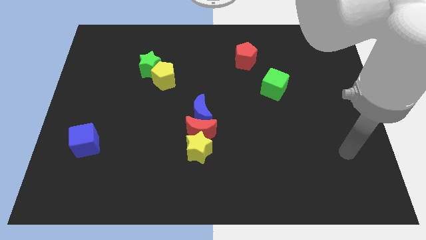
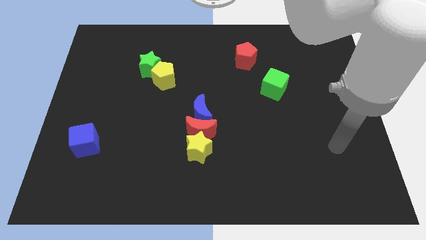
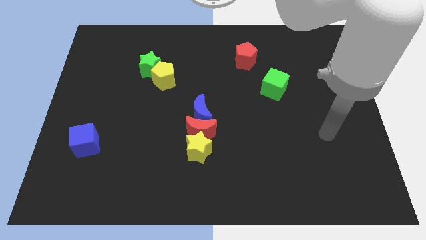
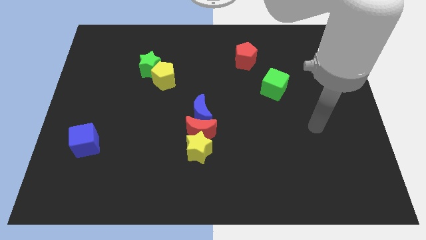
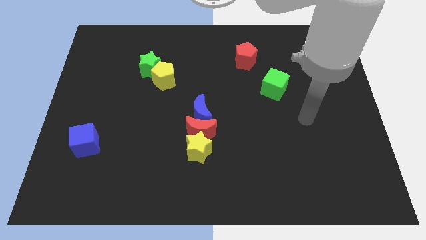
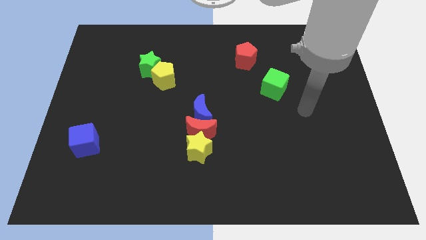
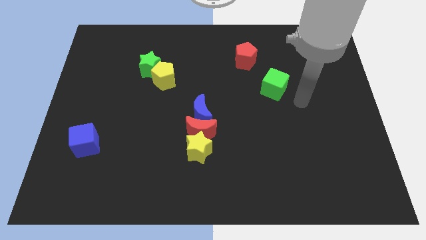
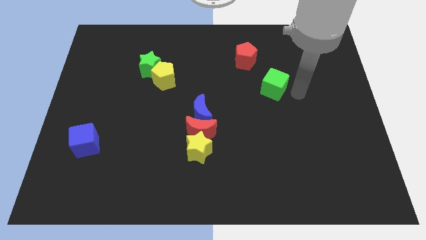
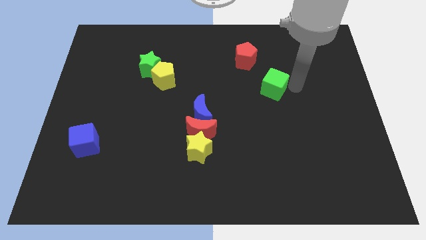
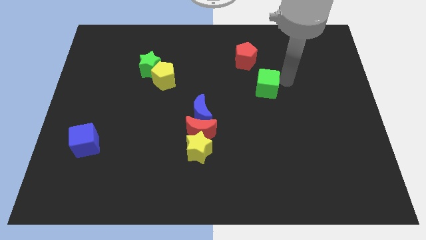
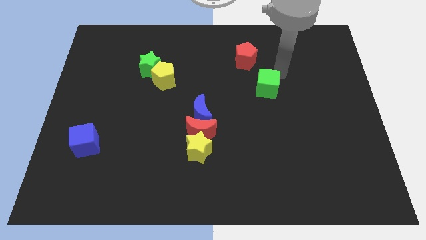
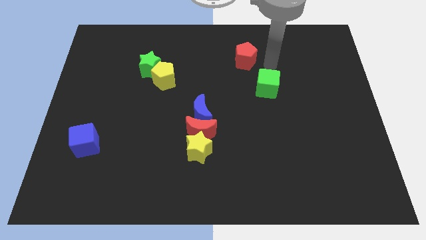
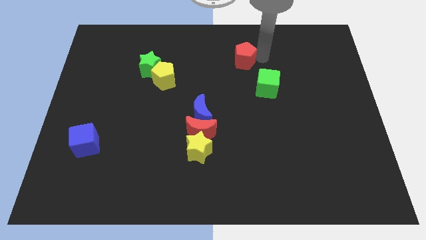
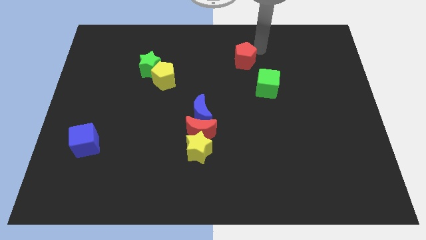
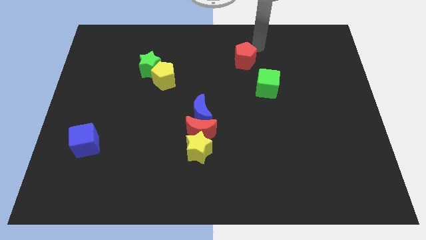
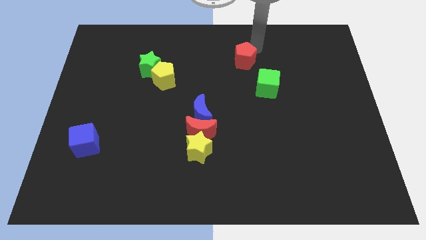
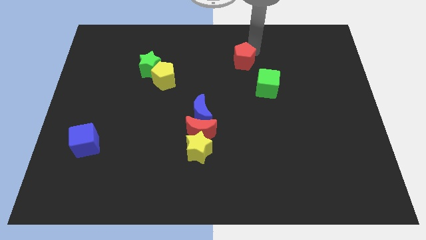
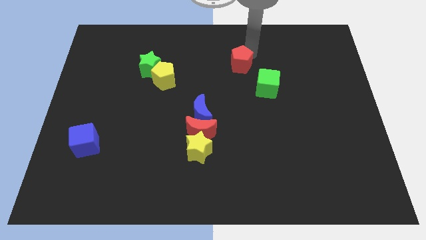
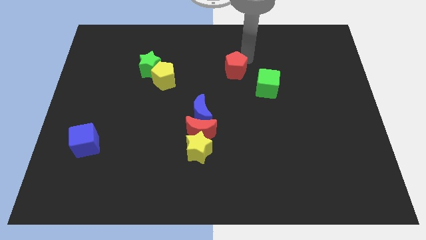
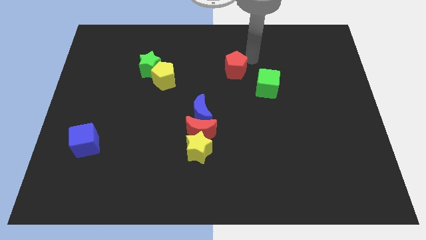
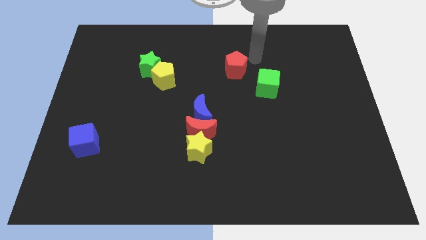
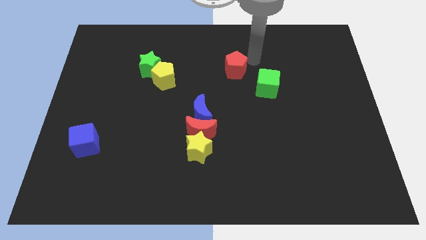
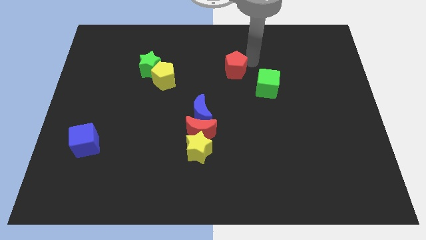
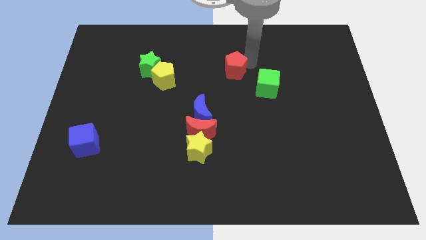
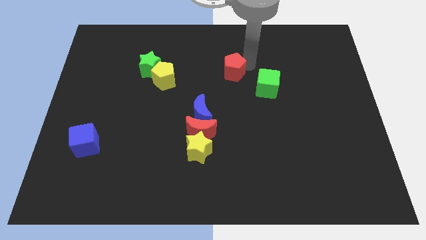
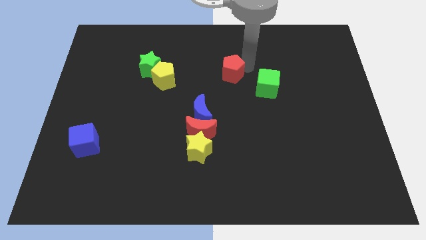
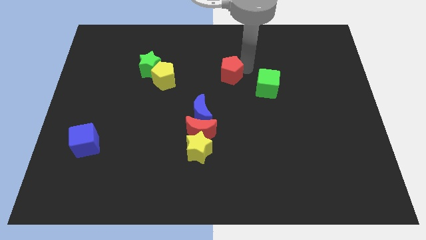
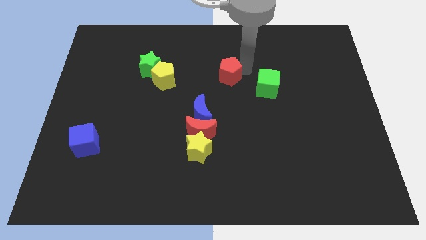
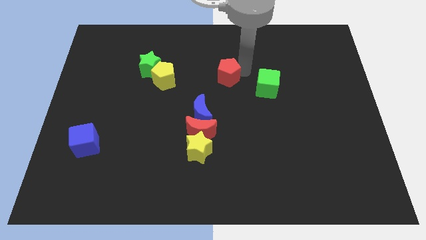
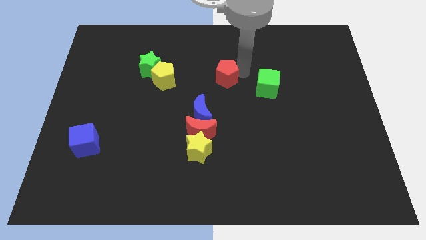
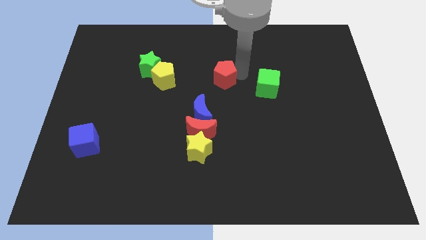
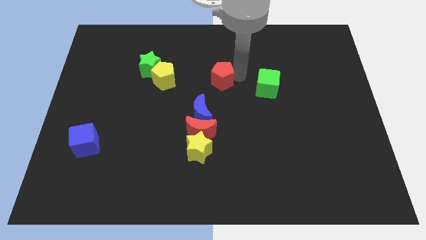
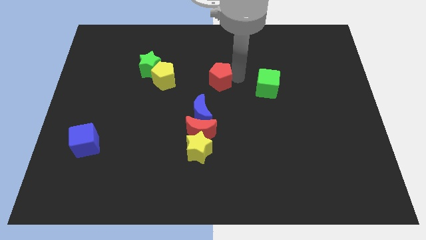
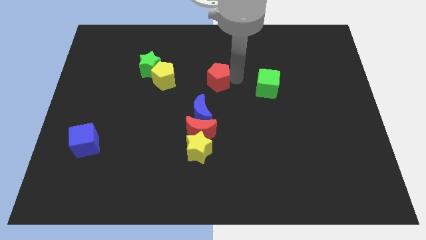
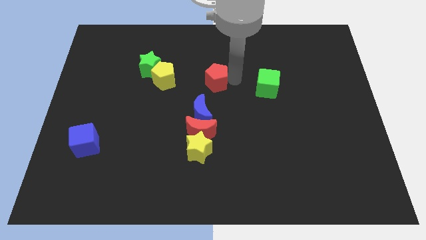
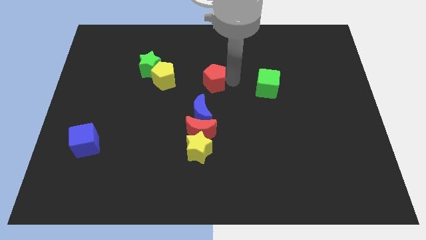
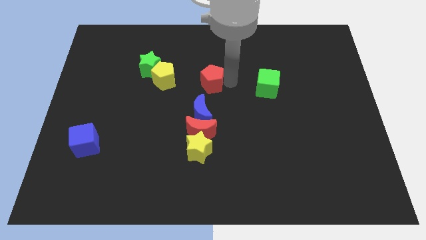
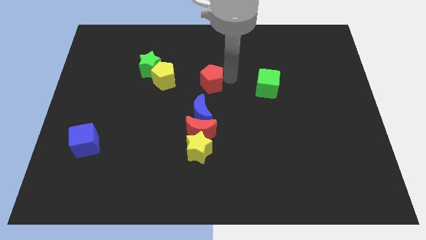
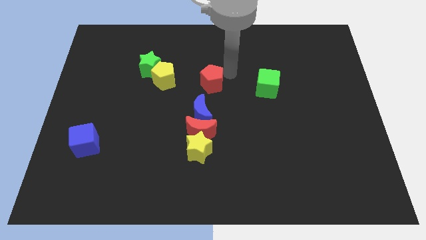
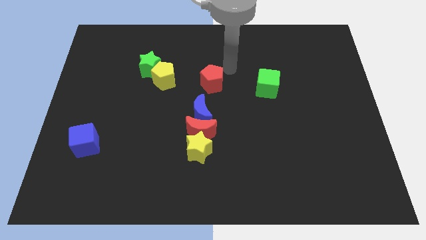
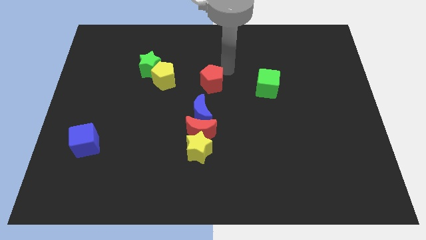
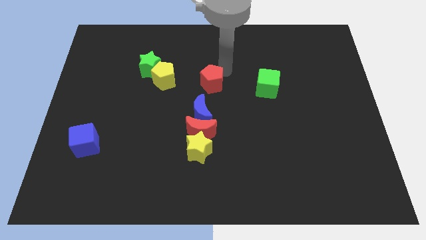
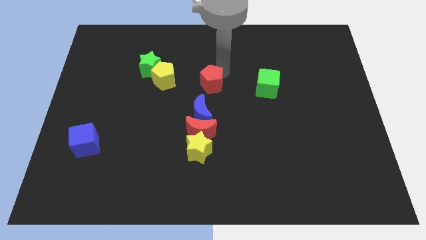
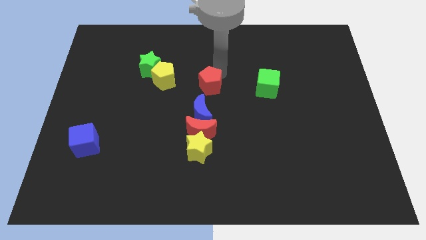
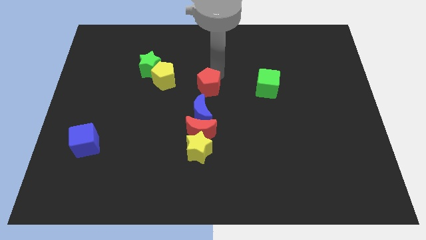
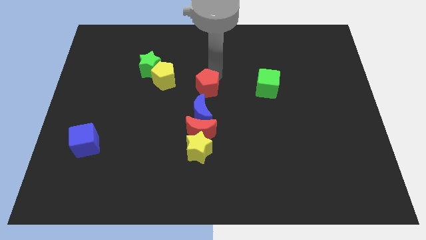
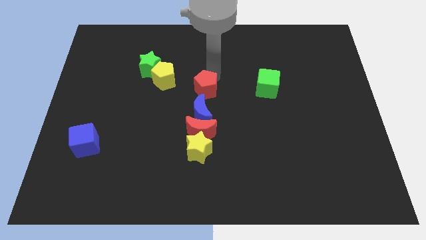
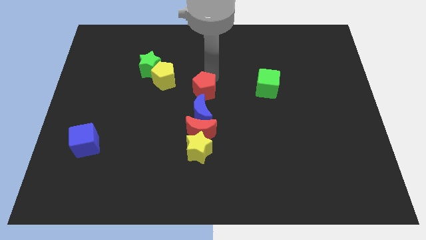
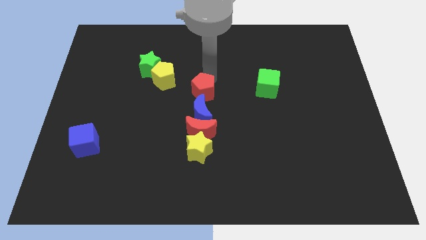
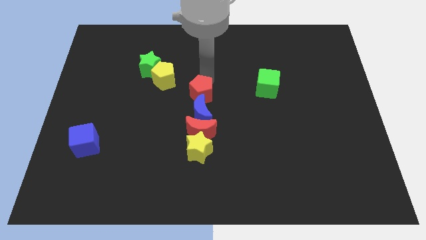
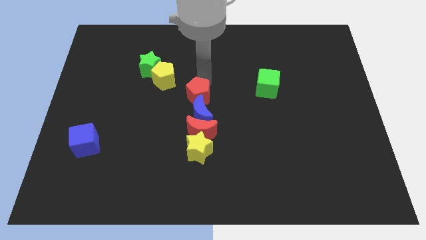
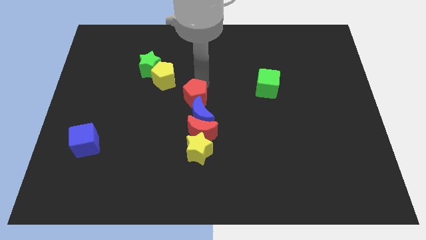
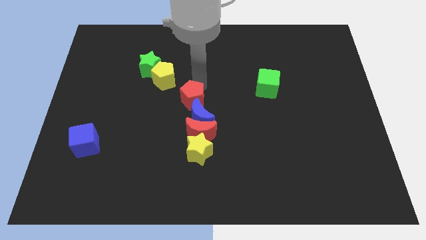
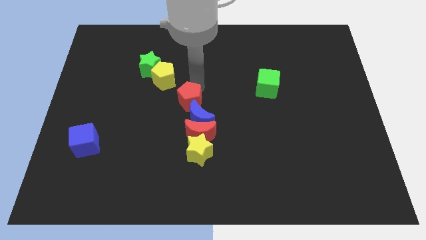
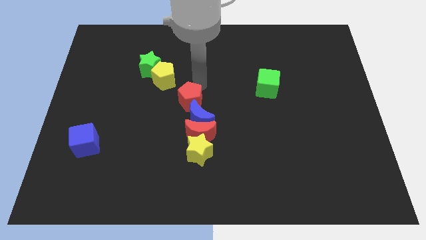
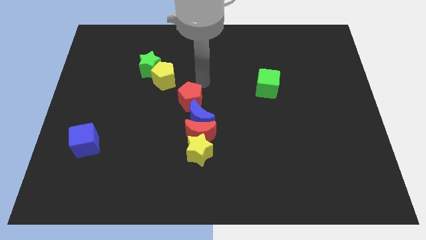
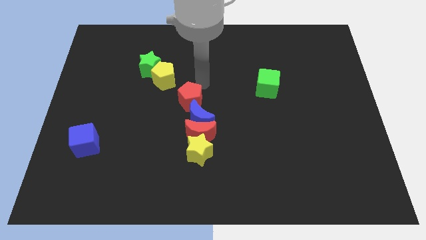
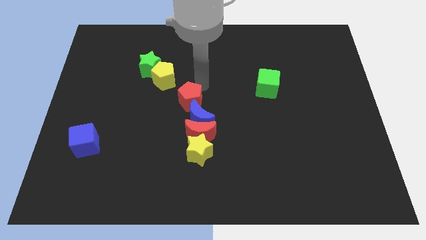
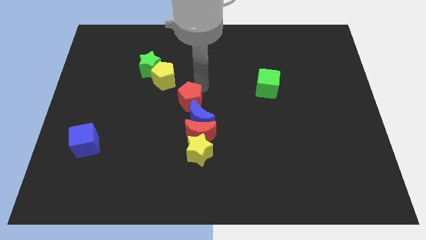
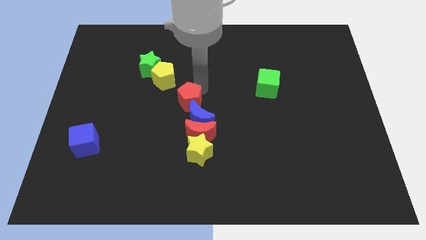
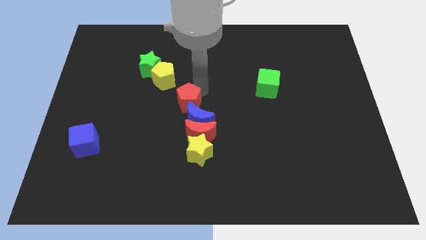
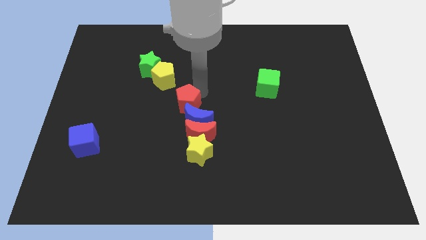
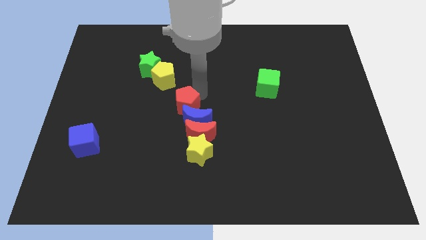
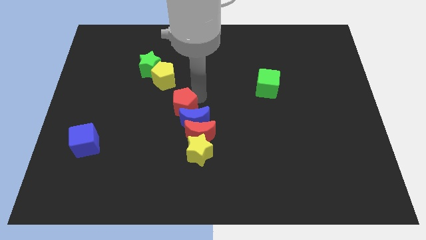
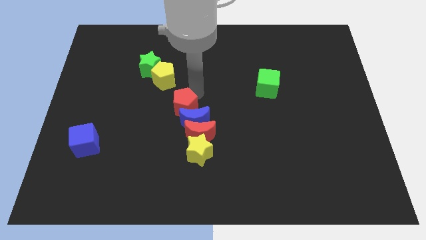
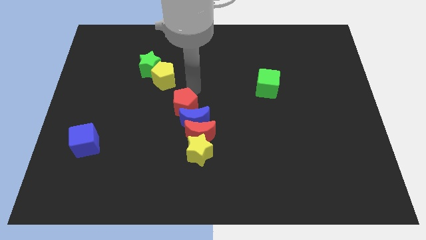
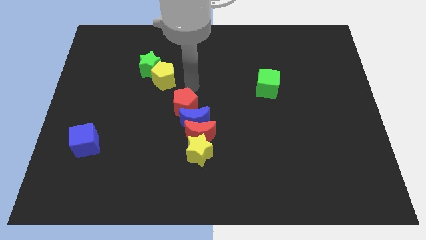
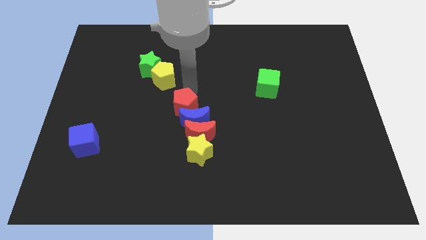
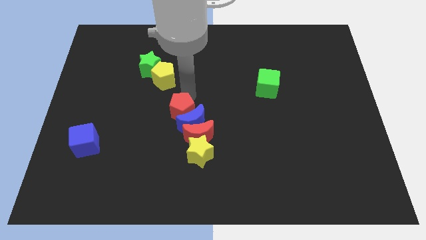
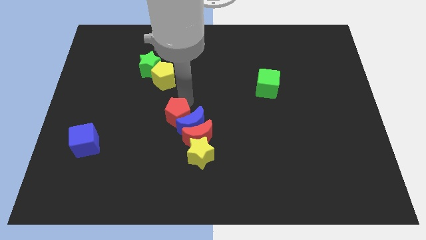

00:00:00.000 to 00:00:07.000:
put the red pentagon to the top left of the yellow star
